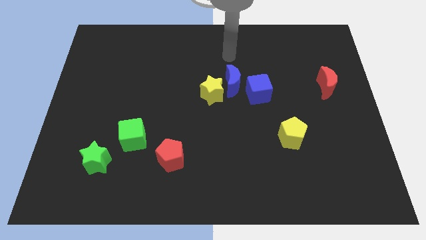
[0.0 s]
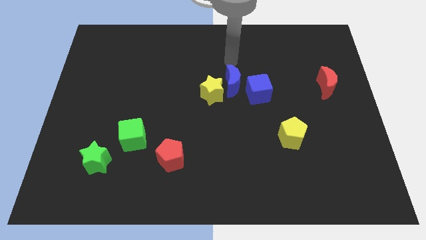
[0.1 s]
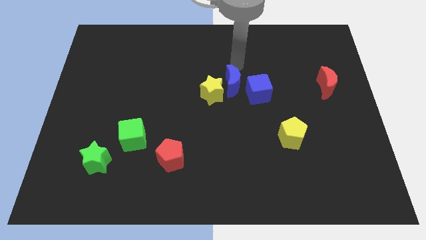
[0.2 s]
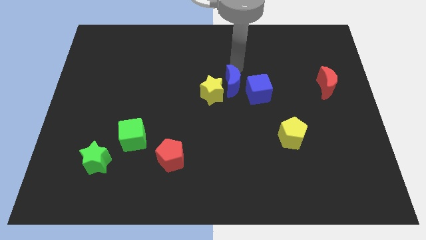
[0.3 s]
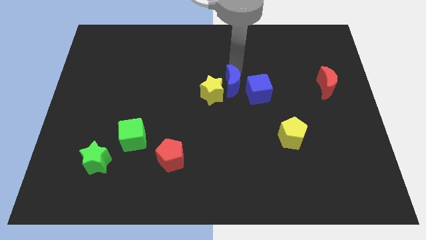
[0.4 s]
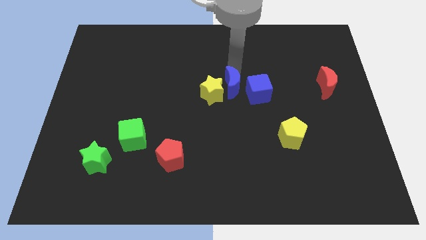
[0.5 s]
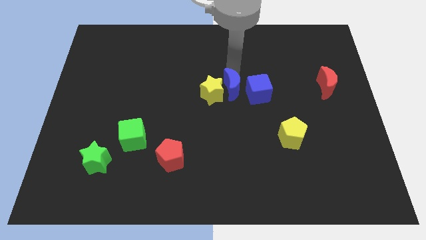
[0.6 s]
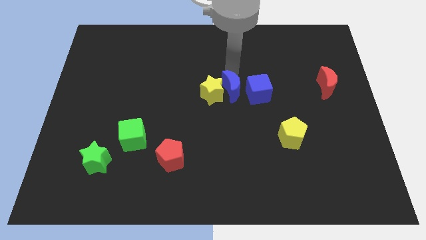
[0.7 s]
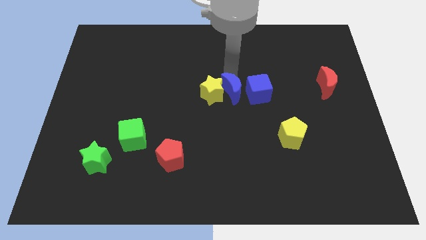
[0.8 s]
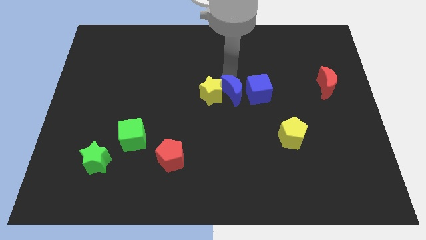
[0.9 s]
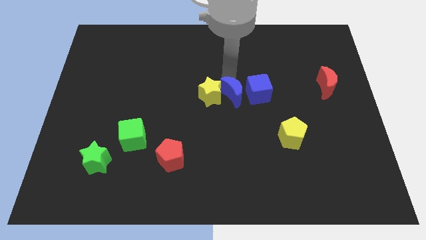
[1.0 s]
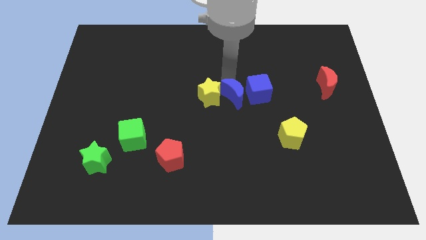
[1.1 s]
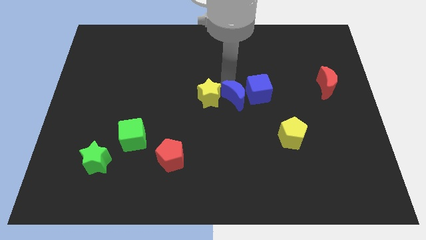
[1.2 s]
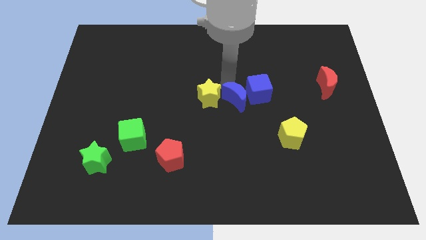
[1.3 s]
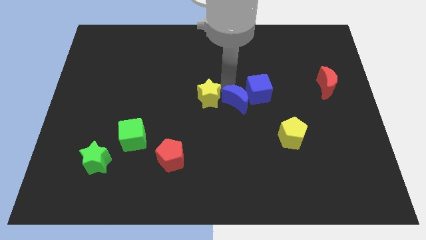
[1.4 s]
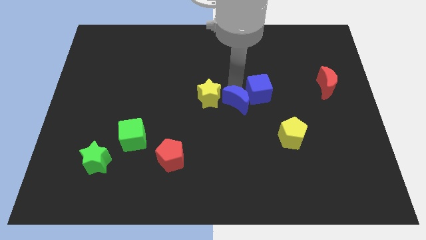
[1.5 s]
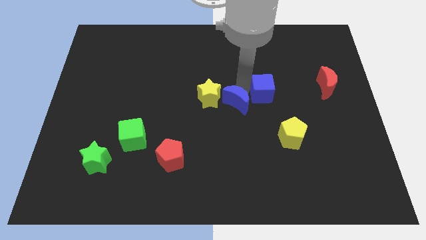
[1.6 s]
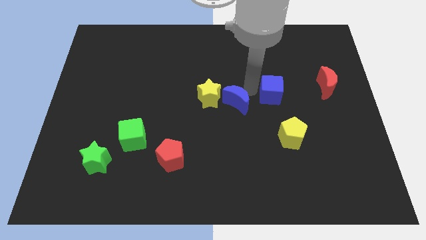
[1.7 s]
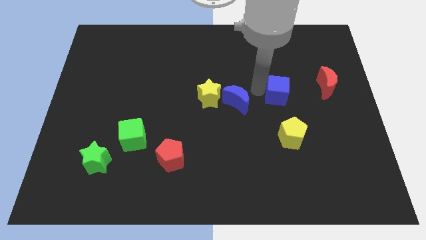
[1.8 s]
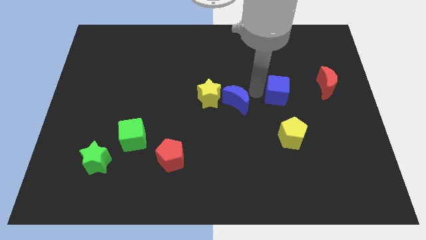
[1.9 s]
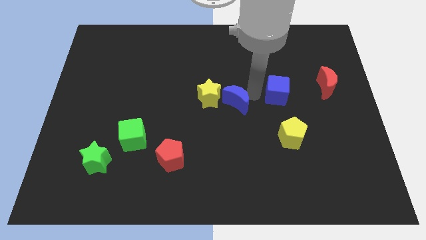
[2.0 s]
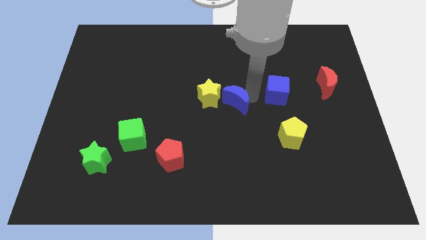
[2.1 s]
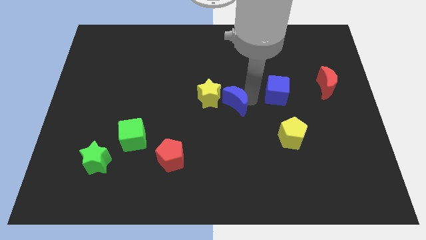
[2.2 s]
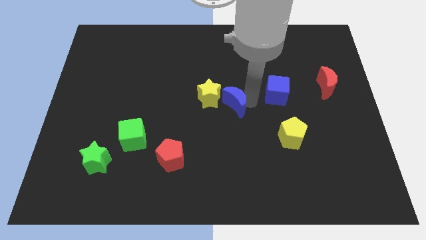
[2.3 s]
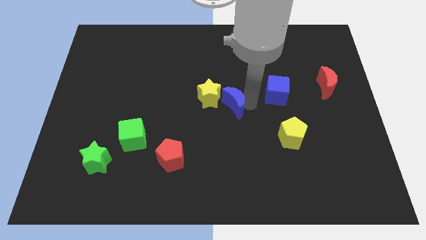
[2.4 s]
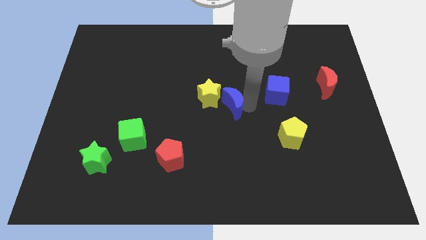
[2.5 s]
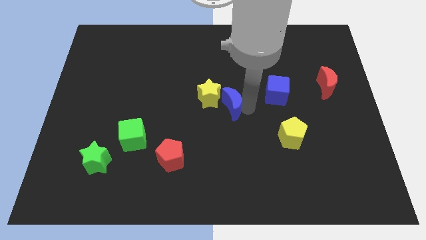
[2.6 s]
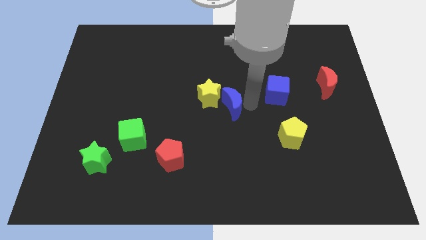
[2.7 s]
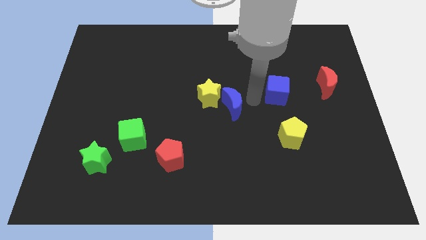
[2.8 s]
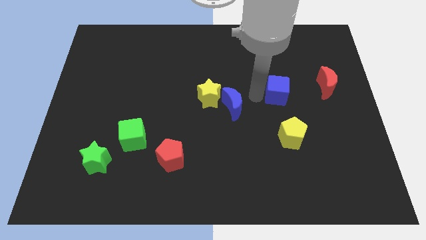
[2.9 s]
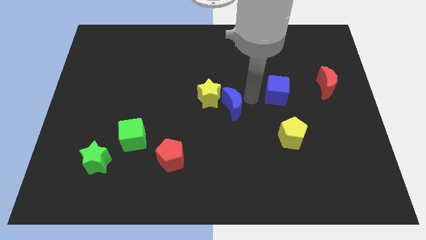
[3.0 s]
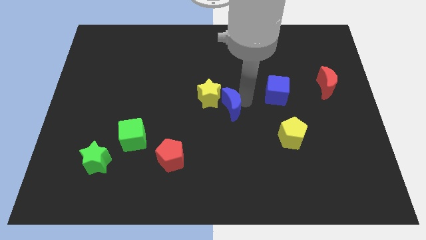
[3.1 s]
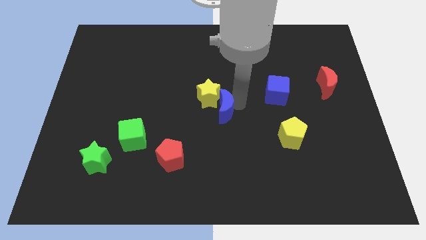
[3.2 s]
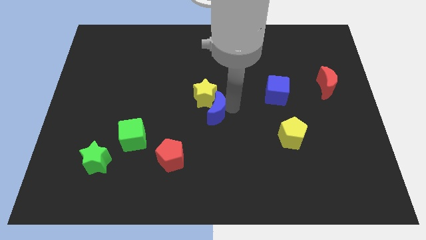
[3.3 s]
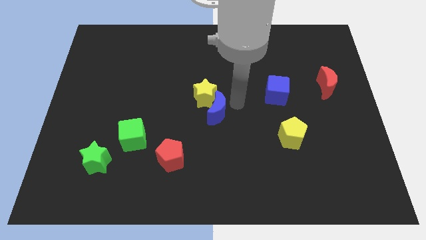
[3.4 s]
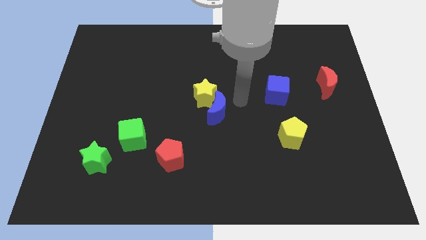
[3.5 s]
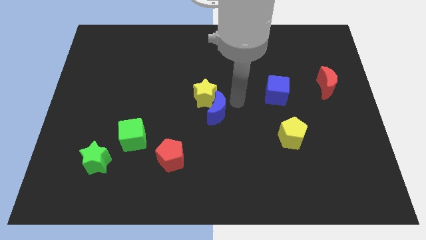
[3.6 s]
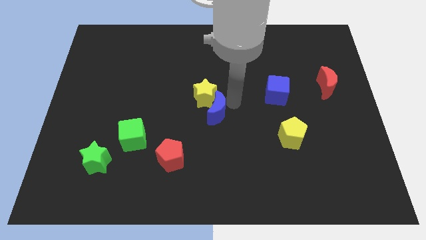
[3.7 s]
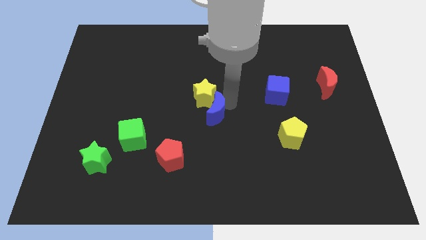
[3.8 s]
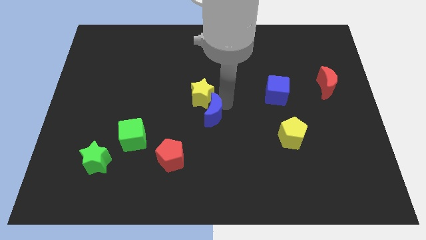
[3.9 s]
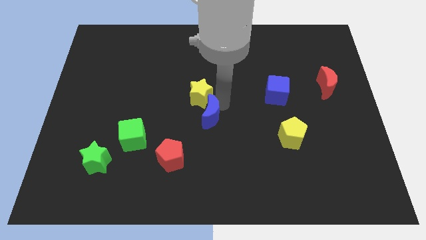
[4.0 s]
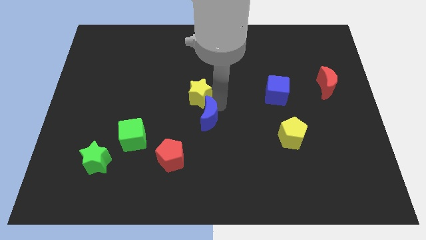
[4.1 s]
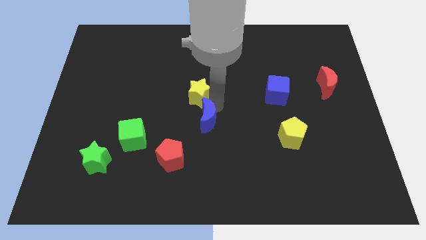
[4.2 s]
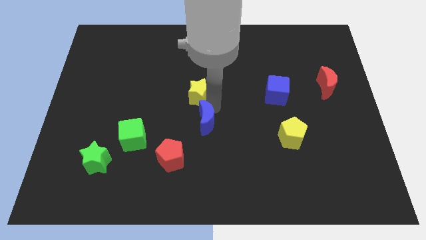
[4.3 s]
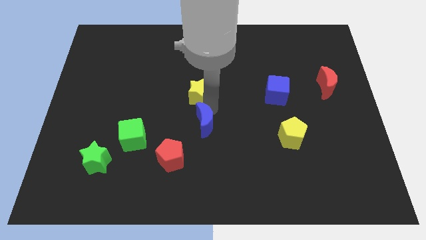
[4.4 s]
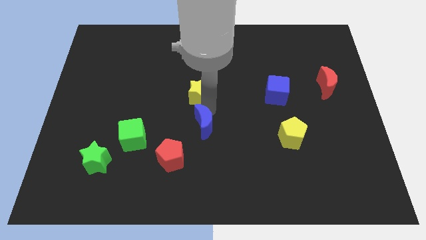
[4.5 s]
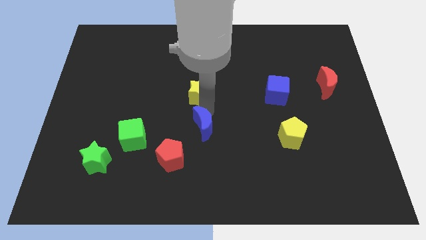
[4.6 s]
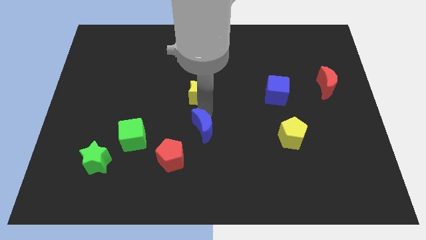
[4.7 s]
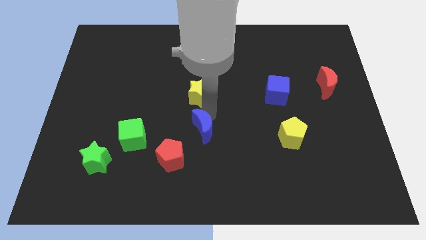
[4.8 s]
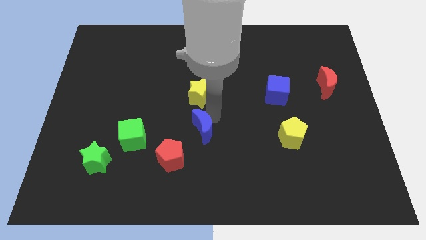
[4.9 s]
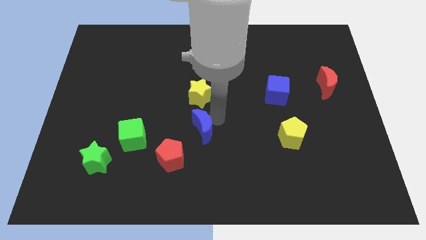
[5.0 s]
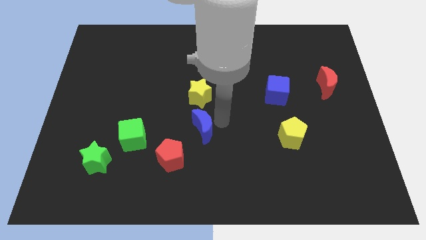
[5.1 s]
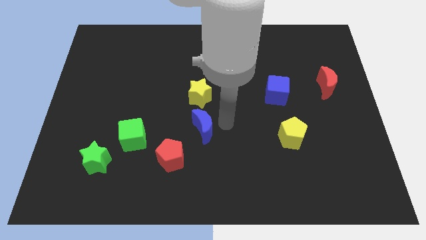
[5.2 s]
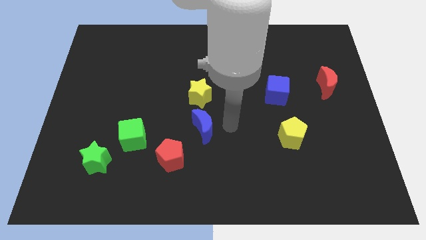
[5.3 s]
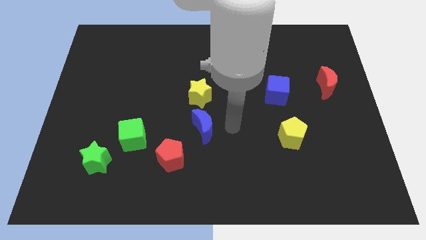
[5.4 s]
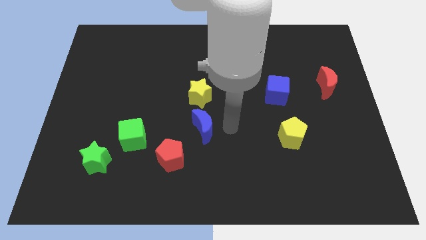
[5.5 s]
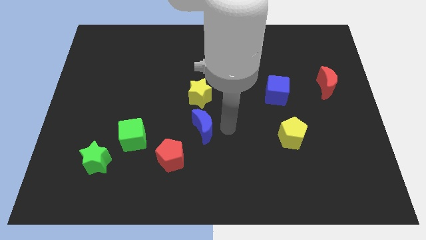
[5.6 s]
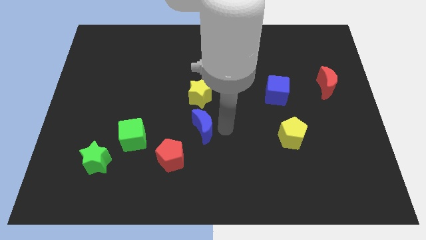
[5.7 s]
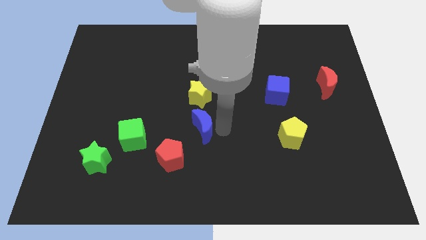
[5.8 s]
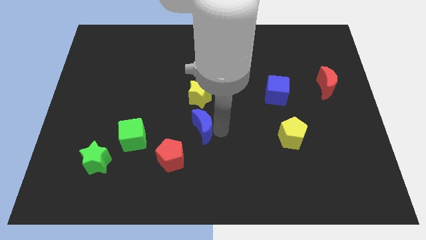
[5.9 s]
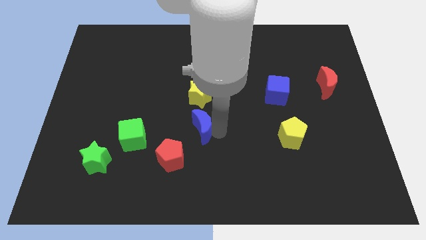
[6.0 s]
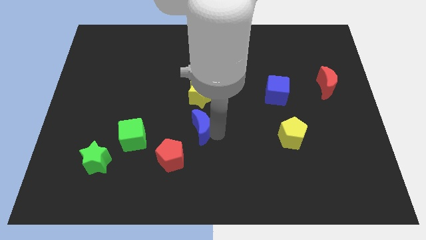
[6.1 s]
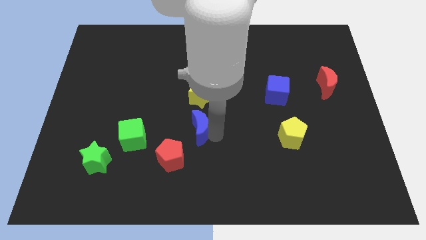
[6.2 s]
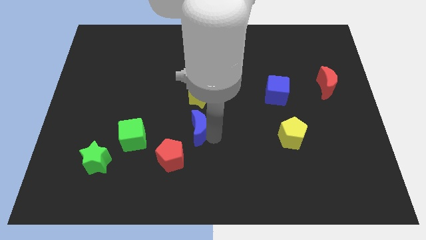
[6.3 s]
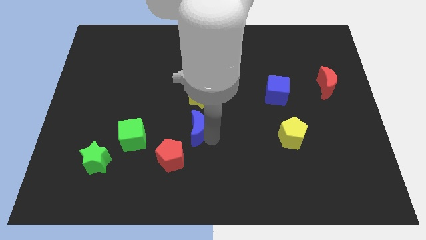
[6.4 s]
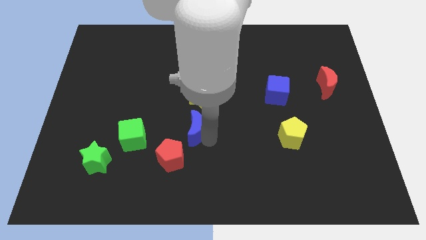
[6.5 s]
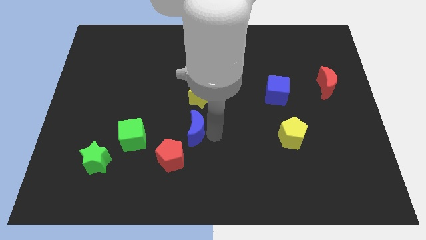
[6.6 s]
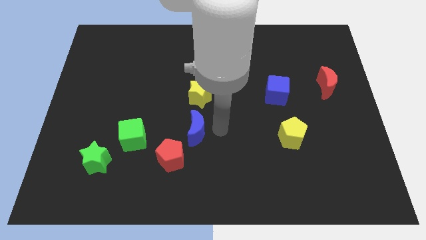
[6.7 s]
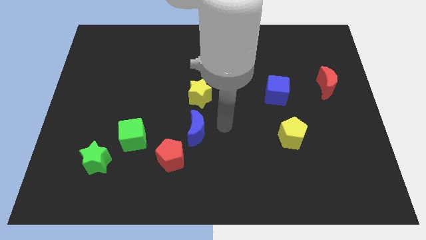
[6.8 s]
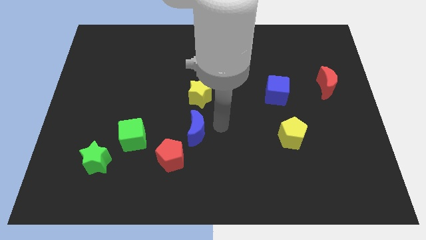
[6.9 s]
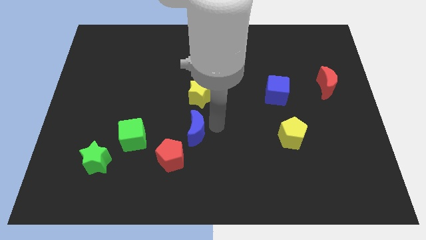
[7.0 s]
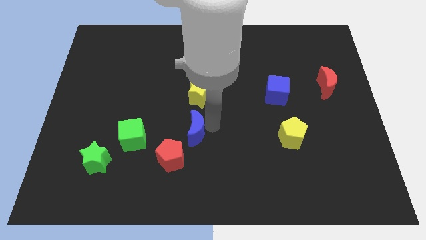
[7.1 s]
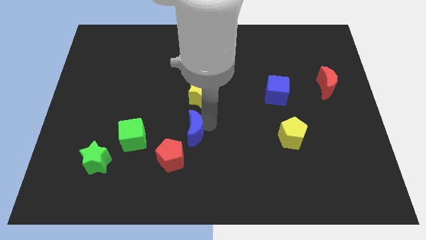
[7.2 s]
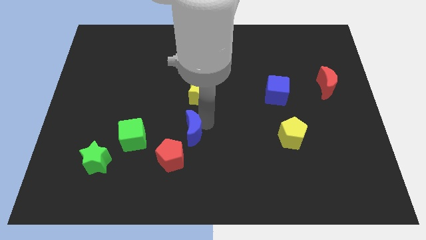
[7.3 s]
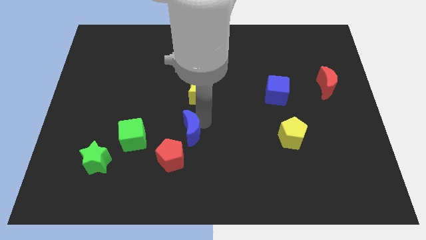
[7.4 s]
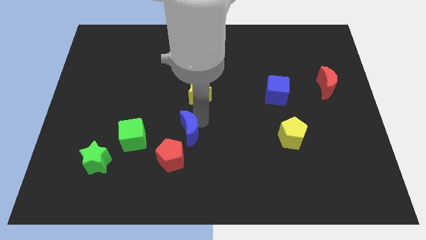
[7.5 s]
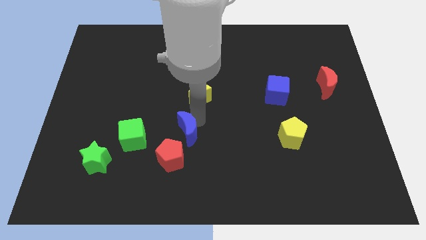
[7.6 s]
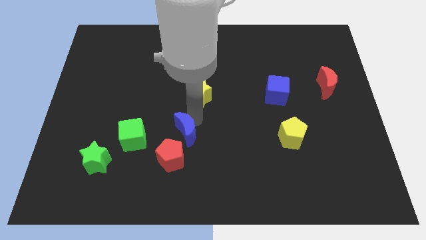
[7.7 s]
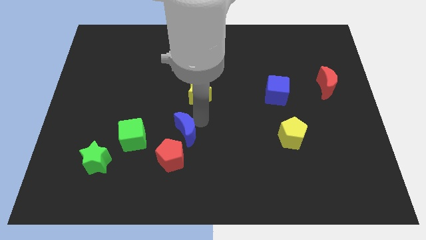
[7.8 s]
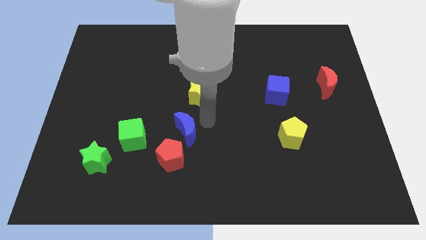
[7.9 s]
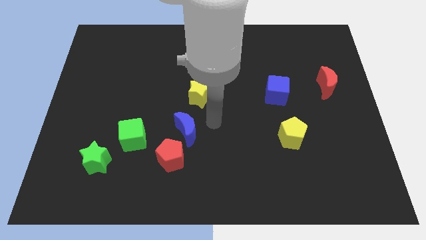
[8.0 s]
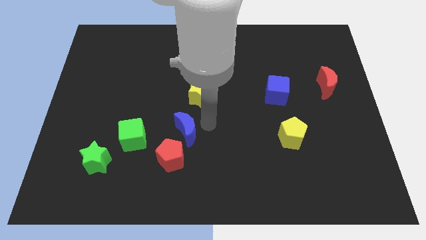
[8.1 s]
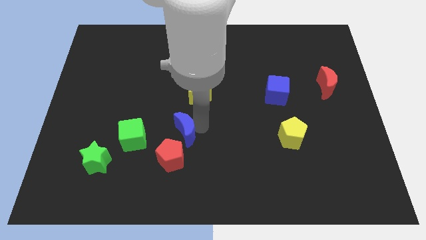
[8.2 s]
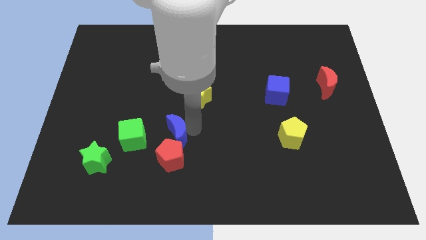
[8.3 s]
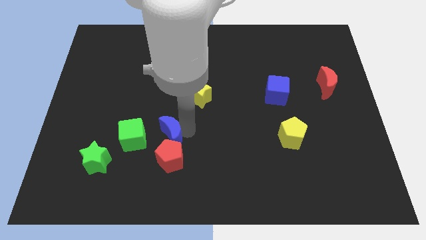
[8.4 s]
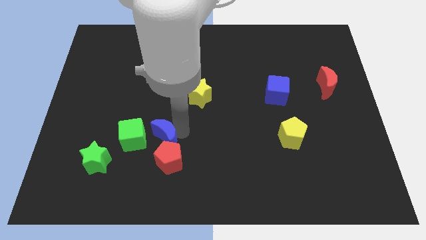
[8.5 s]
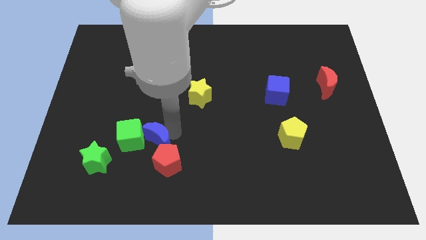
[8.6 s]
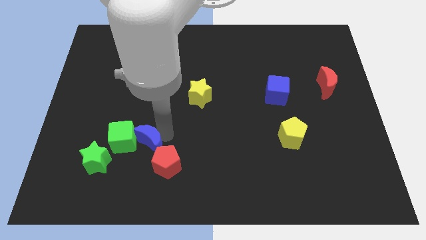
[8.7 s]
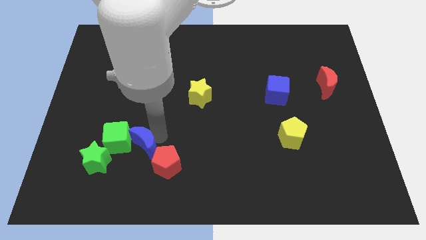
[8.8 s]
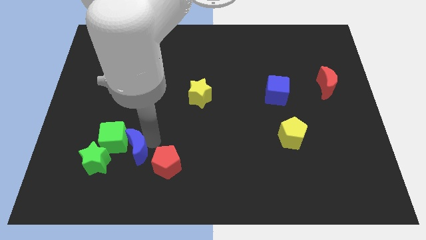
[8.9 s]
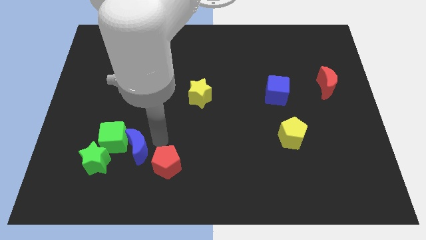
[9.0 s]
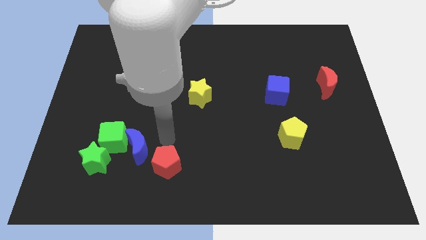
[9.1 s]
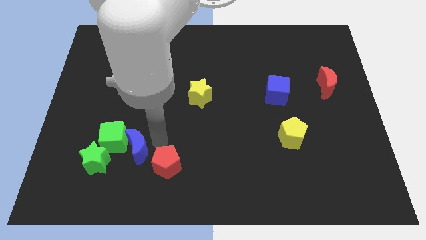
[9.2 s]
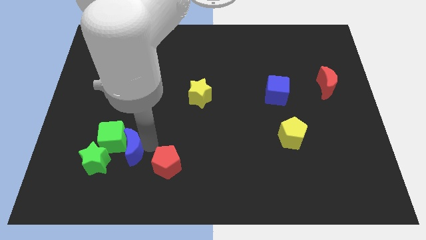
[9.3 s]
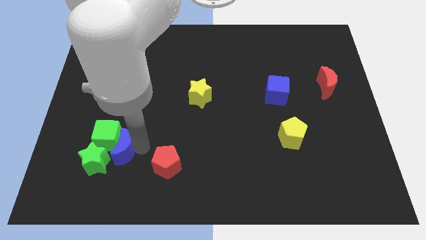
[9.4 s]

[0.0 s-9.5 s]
move the blue moon to the green star
